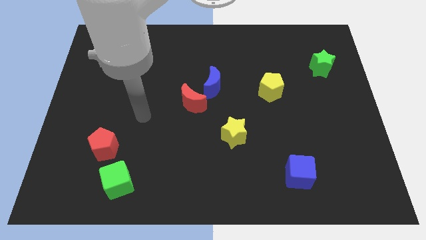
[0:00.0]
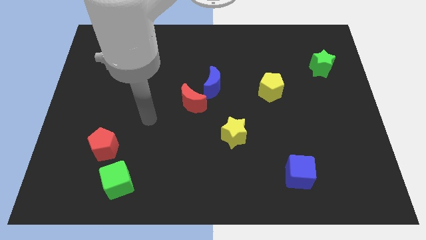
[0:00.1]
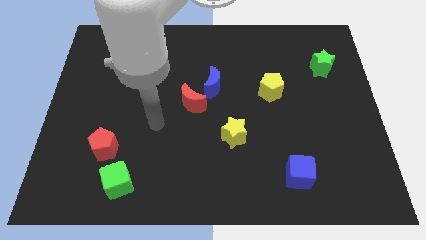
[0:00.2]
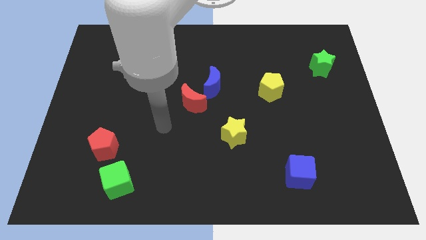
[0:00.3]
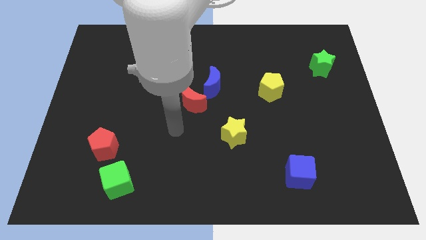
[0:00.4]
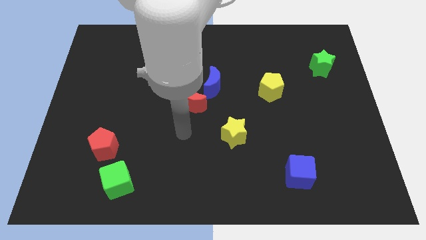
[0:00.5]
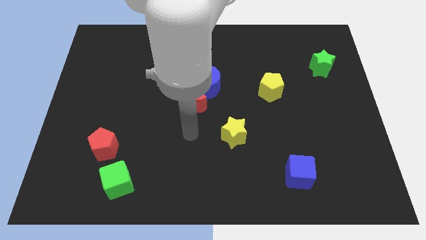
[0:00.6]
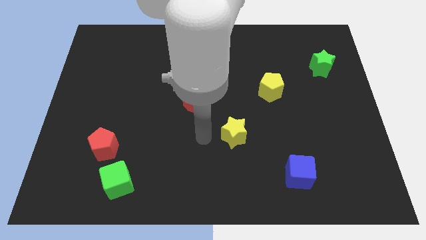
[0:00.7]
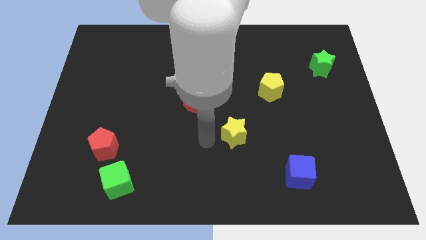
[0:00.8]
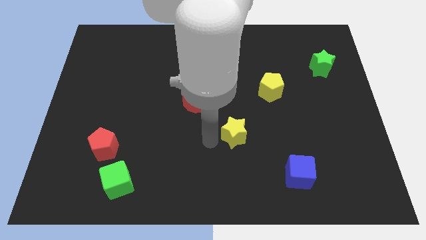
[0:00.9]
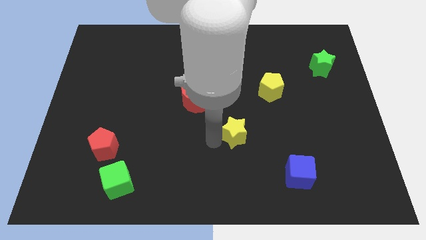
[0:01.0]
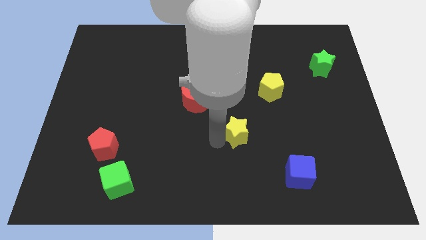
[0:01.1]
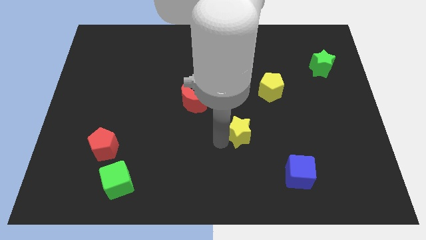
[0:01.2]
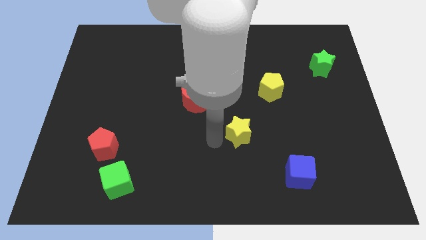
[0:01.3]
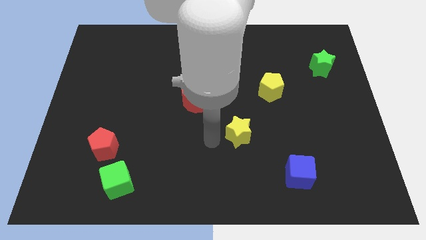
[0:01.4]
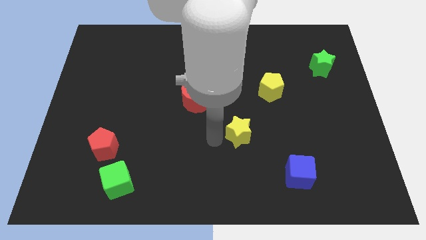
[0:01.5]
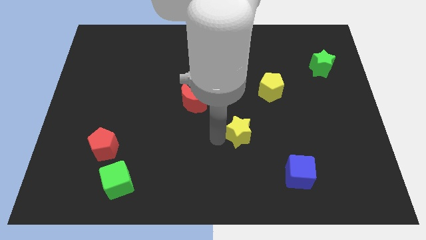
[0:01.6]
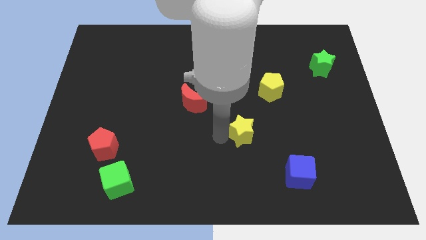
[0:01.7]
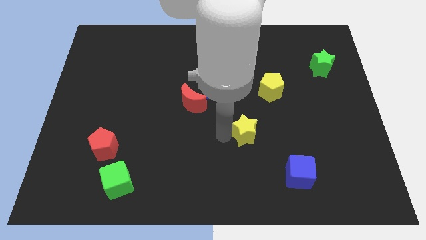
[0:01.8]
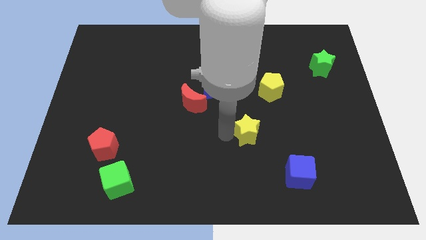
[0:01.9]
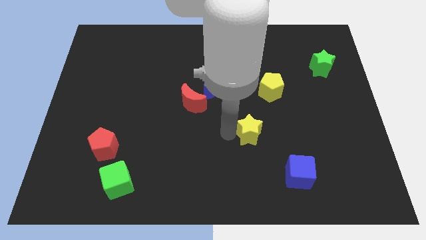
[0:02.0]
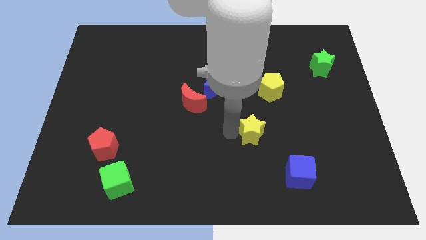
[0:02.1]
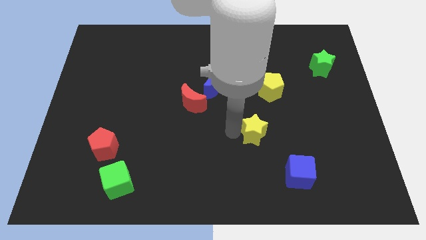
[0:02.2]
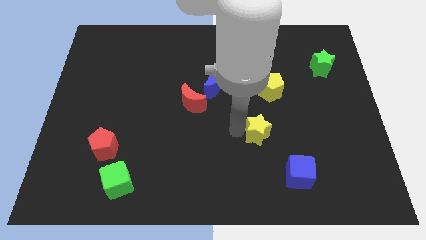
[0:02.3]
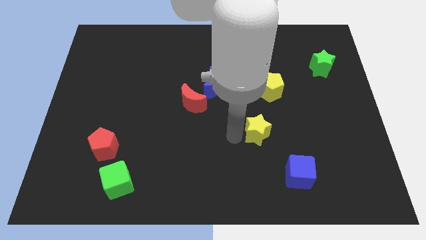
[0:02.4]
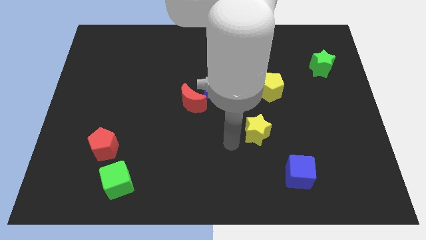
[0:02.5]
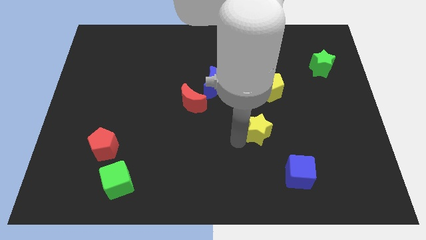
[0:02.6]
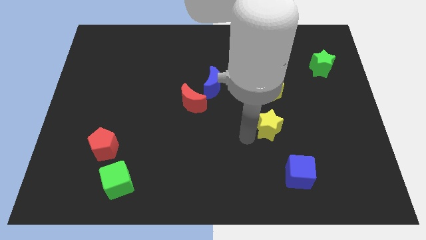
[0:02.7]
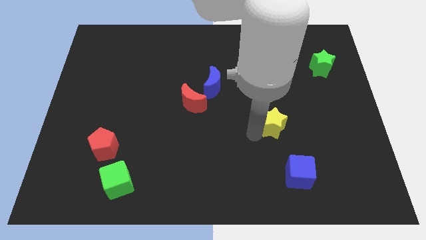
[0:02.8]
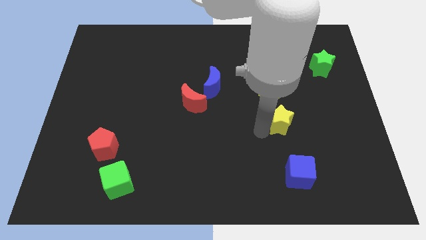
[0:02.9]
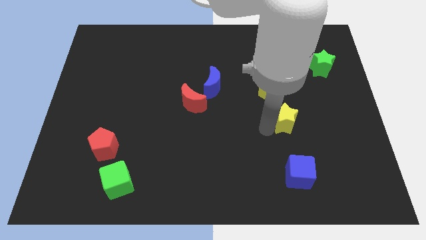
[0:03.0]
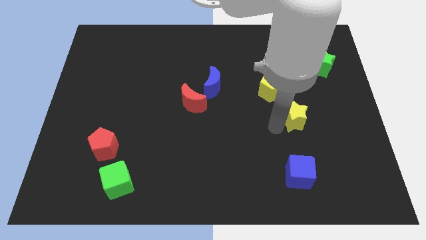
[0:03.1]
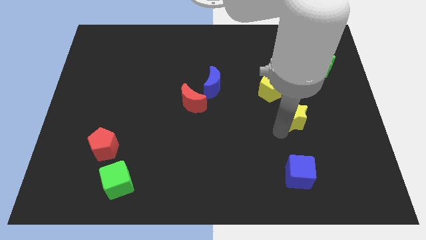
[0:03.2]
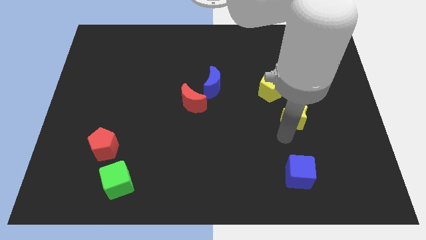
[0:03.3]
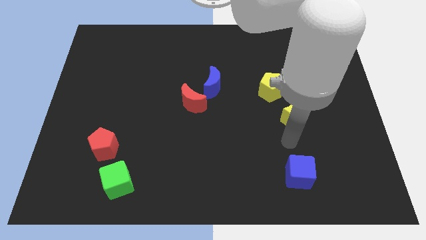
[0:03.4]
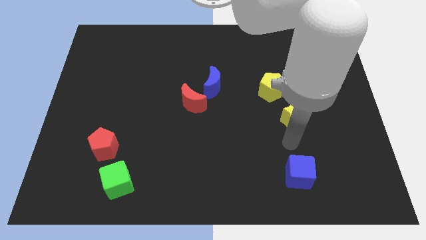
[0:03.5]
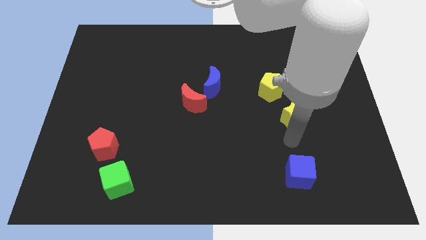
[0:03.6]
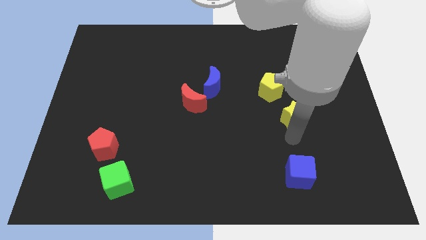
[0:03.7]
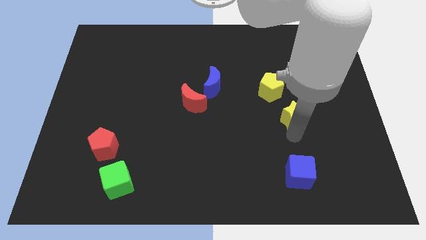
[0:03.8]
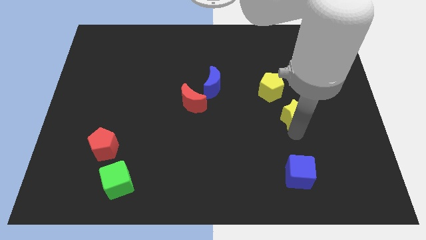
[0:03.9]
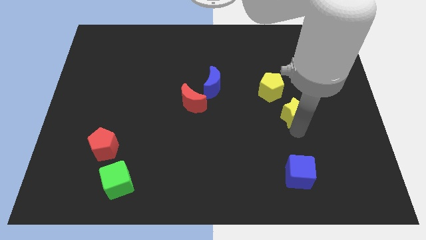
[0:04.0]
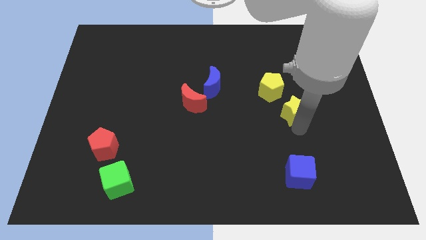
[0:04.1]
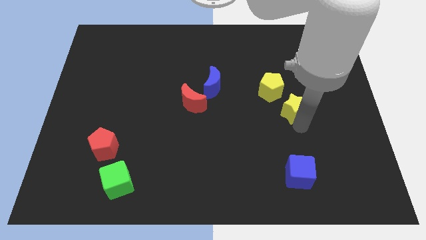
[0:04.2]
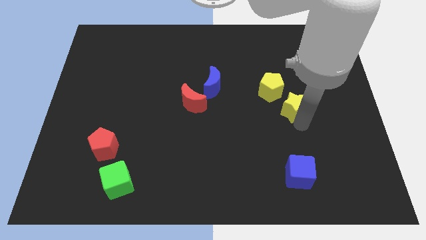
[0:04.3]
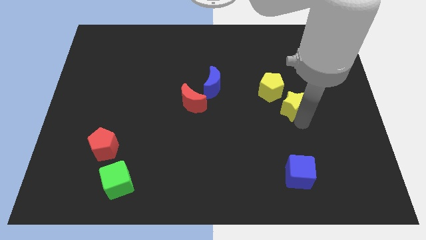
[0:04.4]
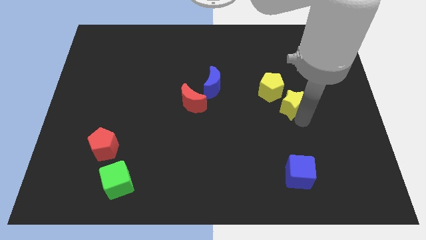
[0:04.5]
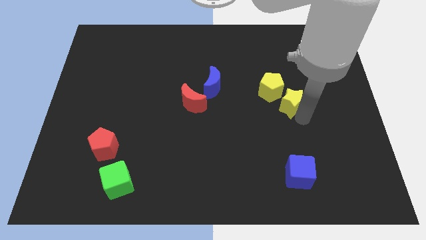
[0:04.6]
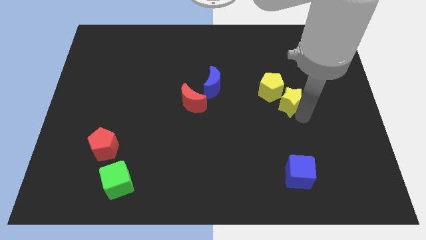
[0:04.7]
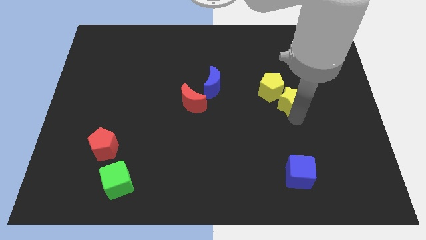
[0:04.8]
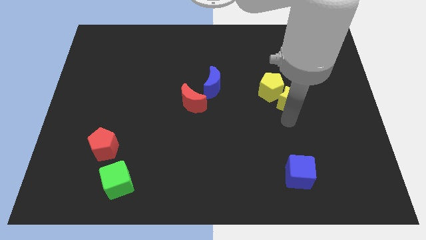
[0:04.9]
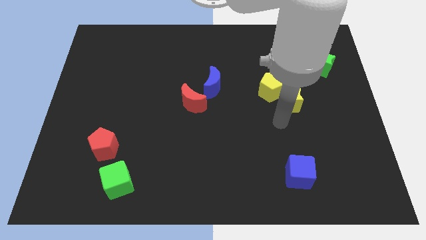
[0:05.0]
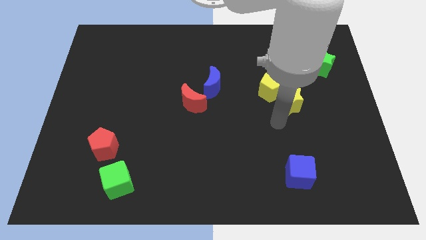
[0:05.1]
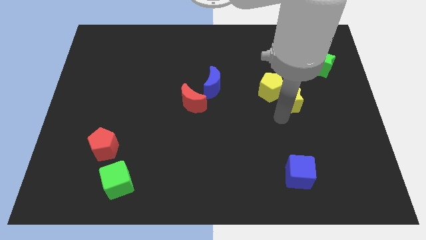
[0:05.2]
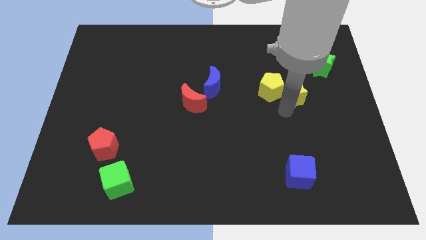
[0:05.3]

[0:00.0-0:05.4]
put the yellow star diagonally down and to the left of the green star

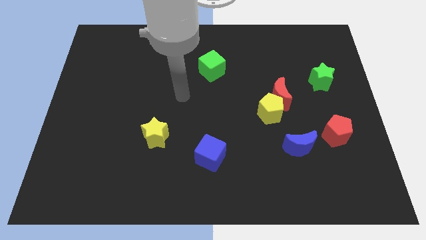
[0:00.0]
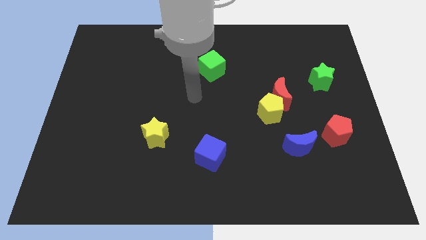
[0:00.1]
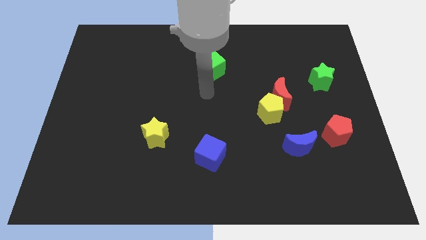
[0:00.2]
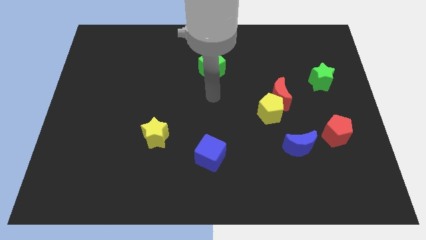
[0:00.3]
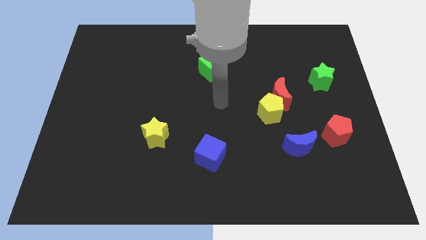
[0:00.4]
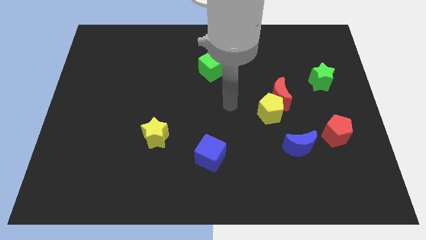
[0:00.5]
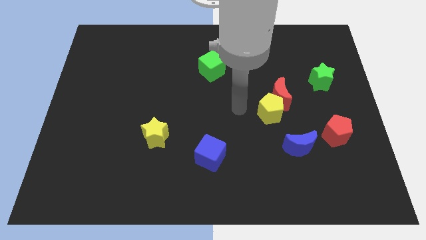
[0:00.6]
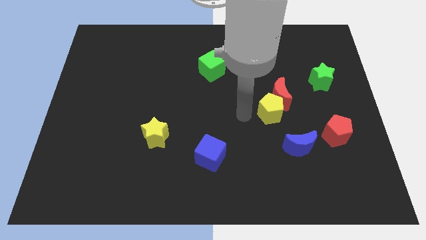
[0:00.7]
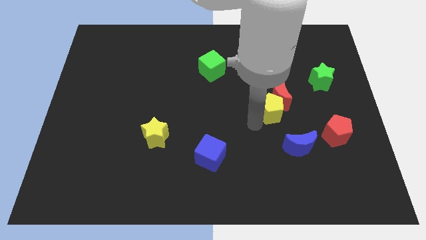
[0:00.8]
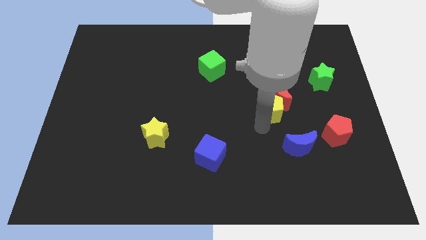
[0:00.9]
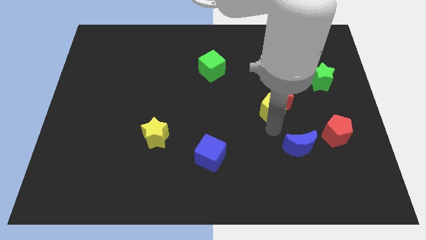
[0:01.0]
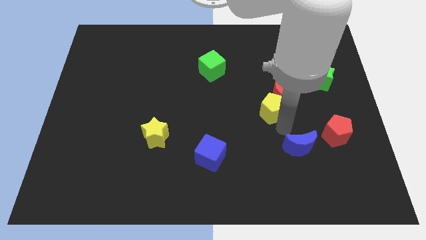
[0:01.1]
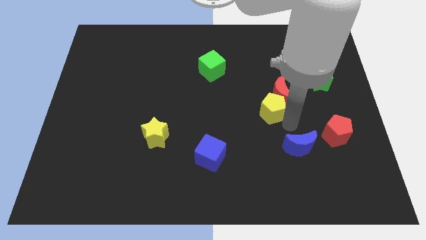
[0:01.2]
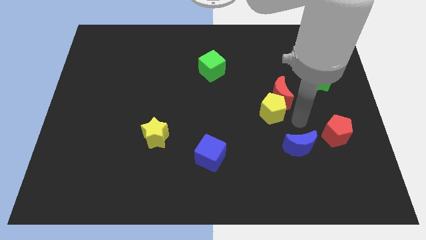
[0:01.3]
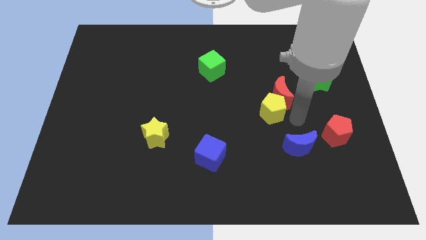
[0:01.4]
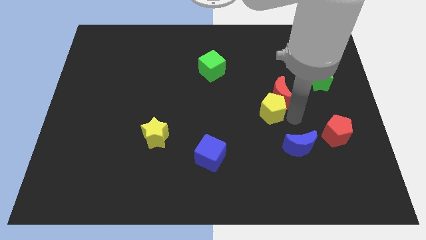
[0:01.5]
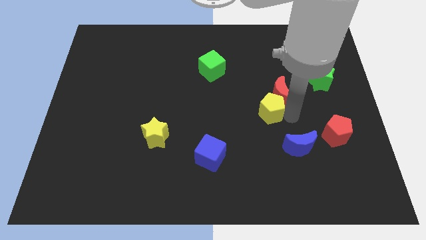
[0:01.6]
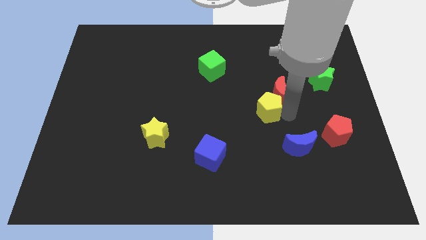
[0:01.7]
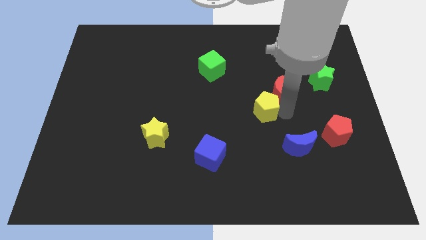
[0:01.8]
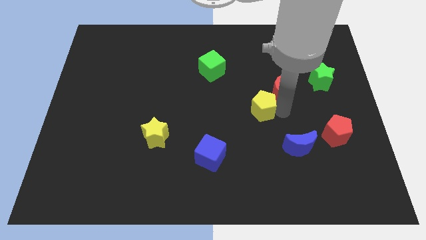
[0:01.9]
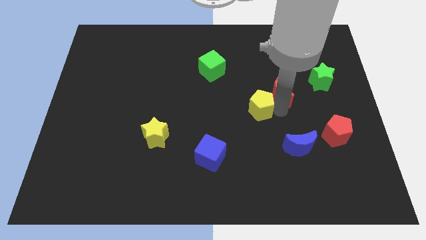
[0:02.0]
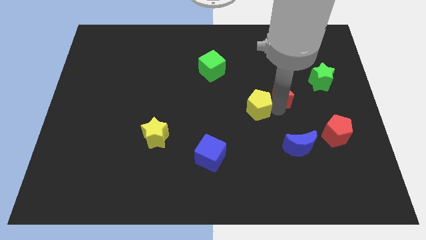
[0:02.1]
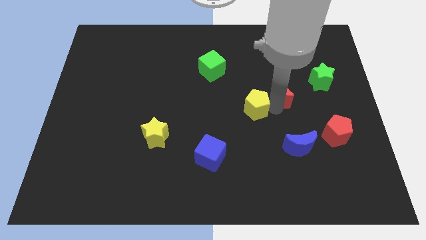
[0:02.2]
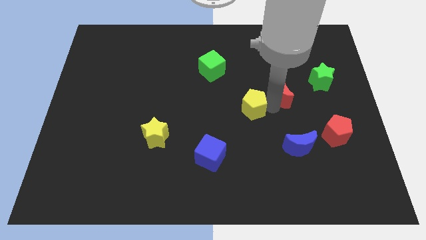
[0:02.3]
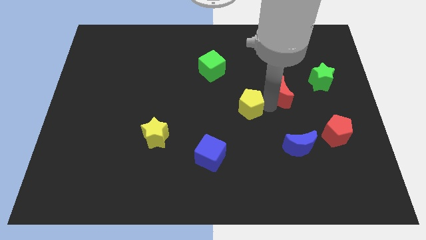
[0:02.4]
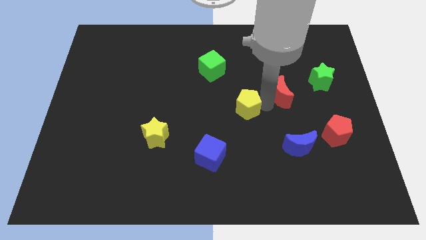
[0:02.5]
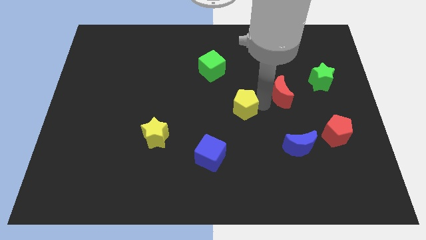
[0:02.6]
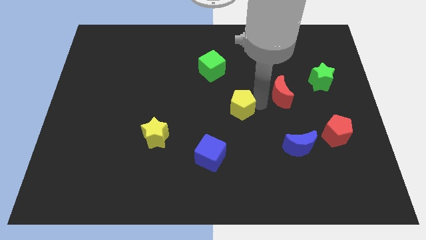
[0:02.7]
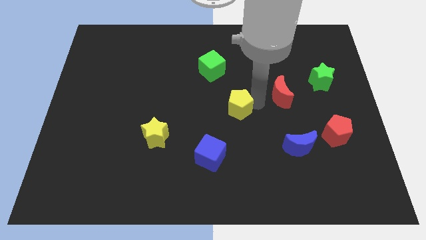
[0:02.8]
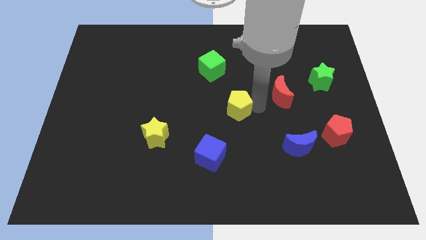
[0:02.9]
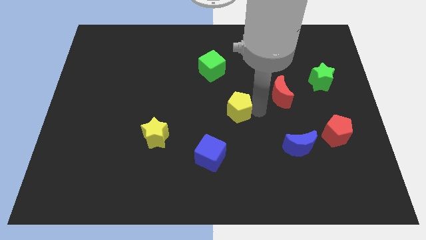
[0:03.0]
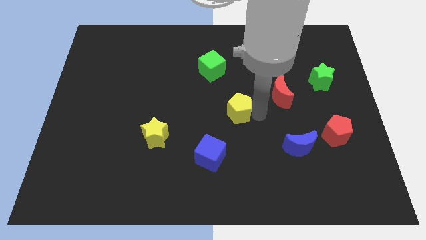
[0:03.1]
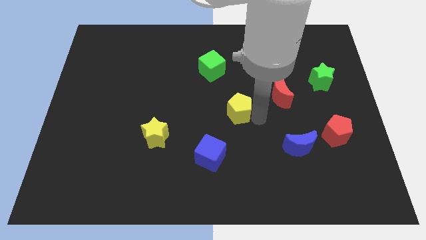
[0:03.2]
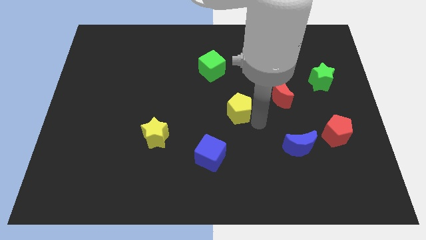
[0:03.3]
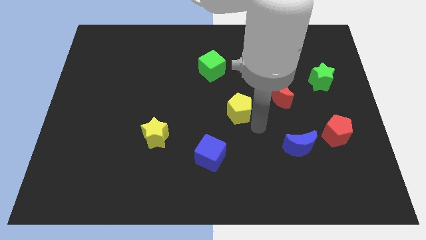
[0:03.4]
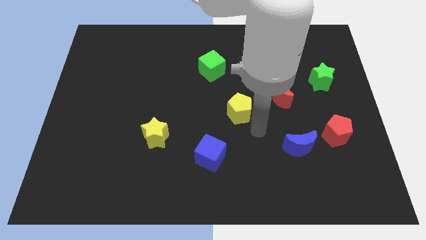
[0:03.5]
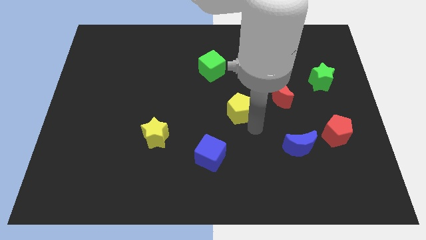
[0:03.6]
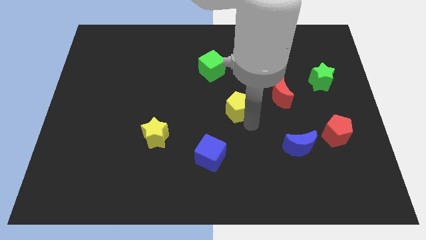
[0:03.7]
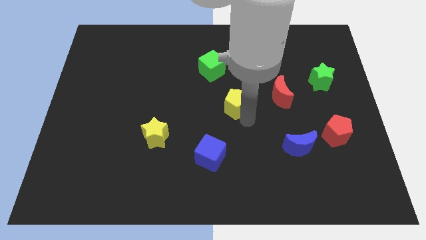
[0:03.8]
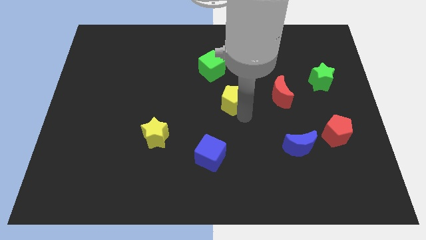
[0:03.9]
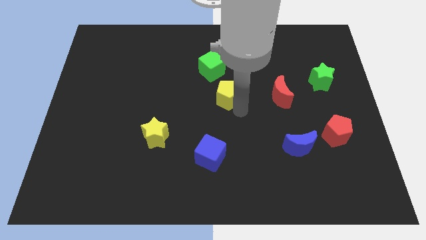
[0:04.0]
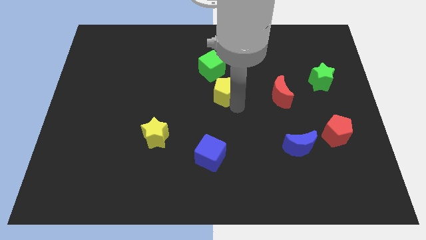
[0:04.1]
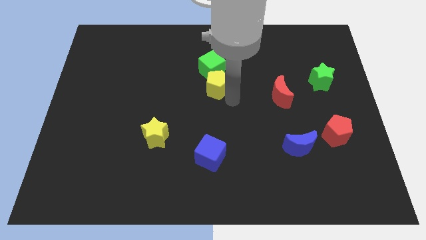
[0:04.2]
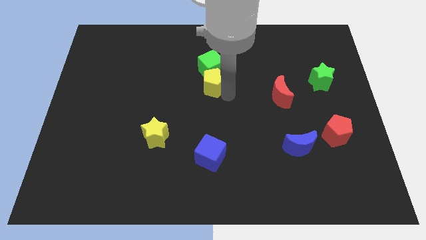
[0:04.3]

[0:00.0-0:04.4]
slide the yellow pentagon to the bottom left side of the green cube
